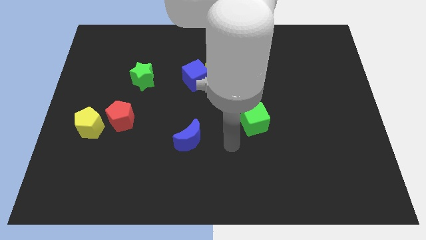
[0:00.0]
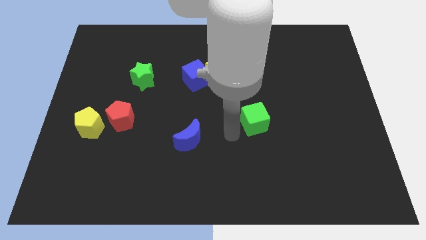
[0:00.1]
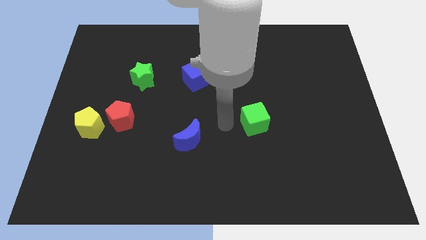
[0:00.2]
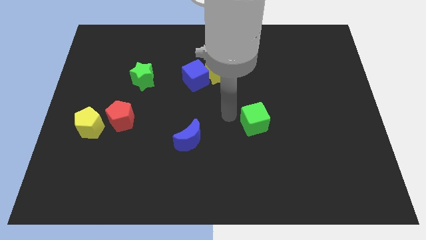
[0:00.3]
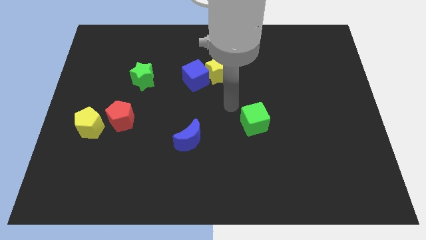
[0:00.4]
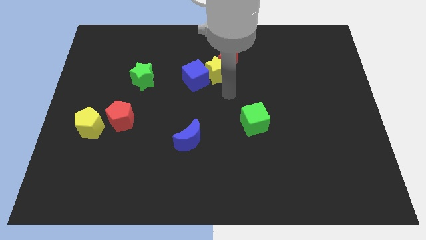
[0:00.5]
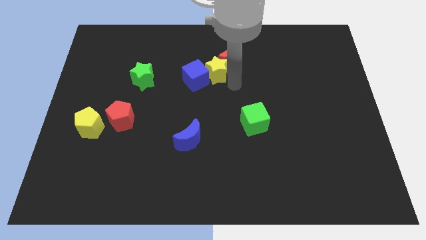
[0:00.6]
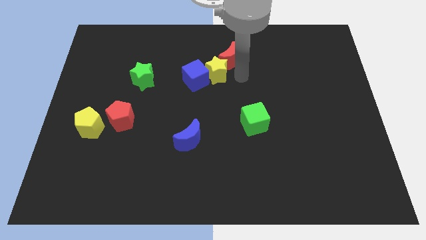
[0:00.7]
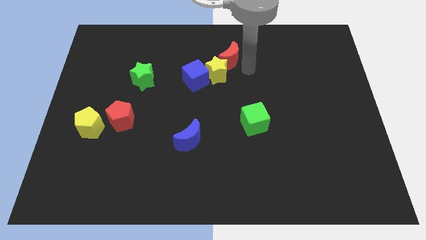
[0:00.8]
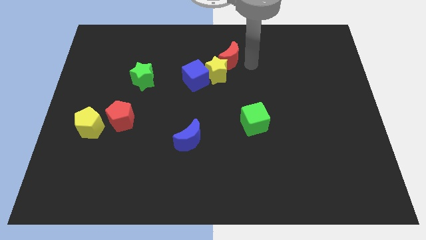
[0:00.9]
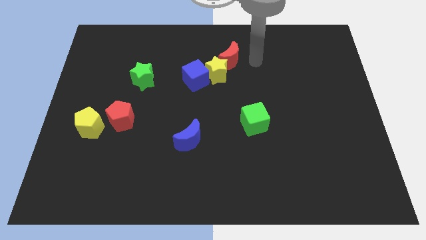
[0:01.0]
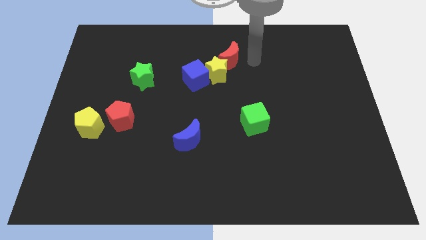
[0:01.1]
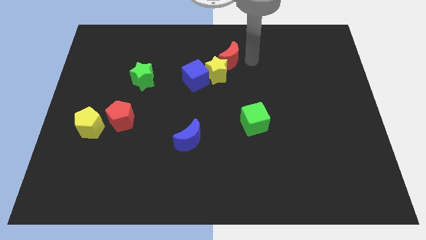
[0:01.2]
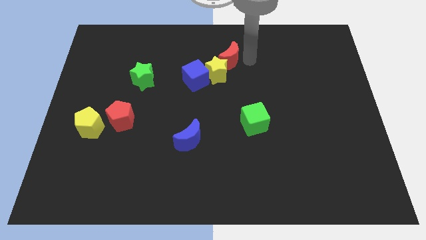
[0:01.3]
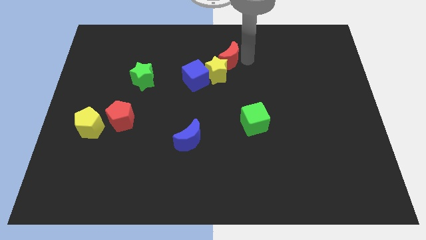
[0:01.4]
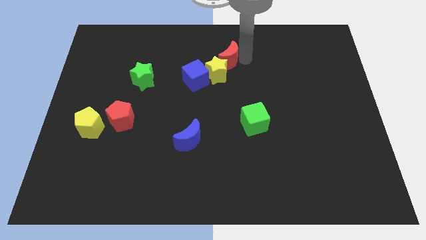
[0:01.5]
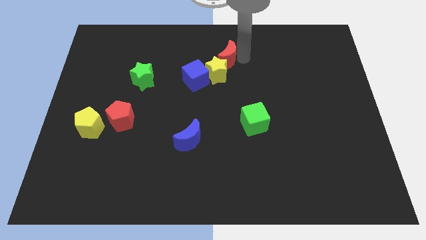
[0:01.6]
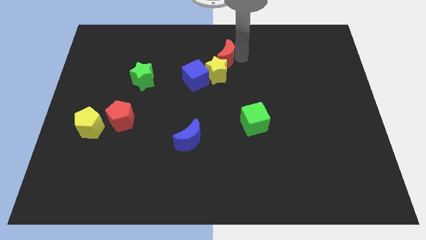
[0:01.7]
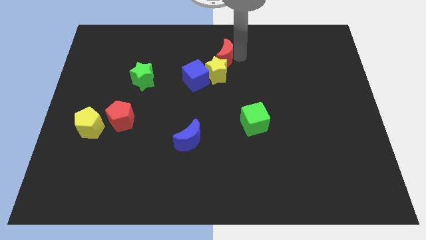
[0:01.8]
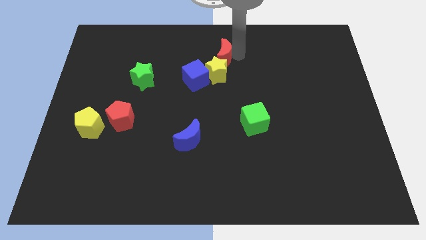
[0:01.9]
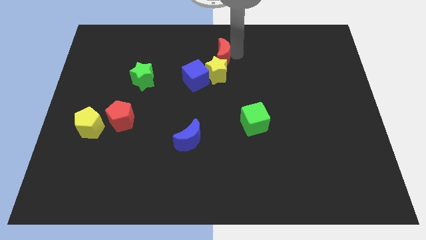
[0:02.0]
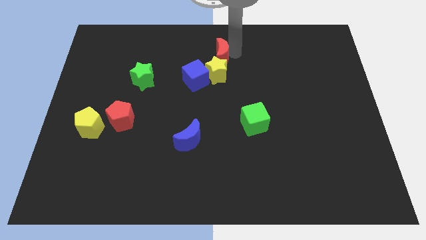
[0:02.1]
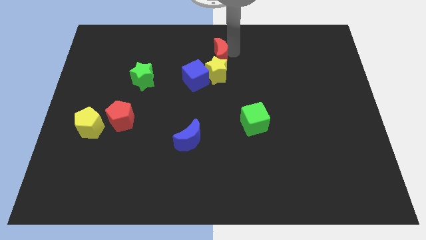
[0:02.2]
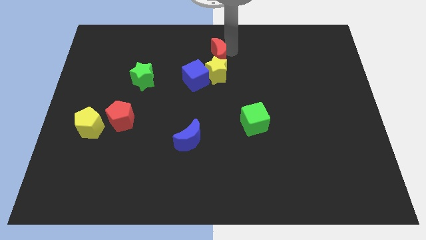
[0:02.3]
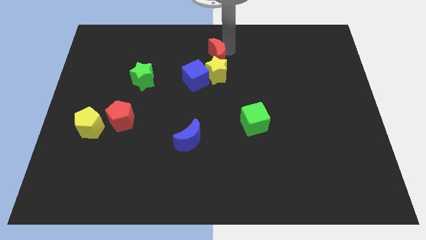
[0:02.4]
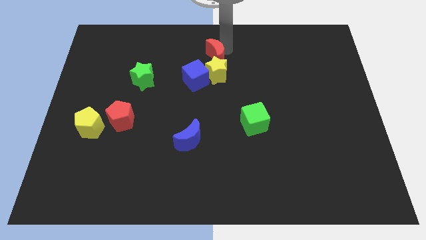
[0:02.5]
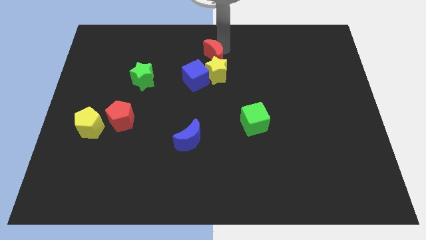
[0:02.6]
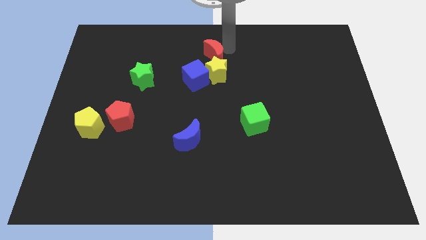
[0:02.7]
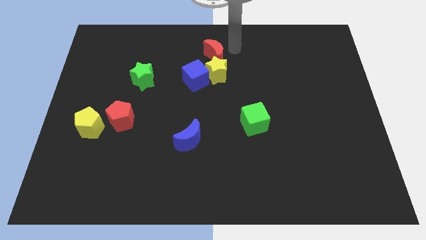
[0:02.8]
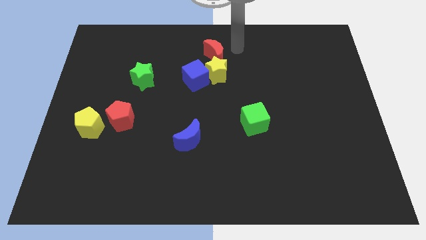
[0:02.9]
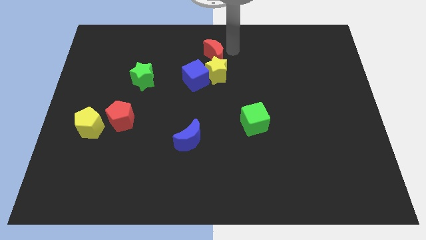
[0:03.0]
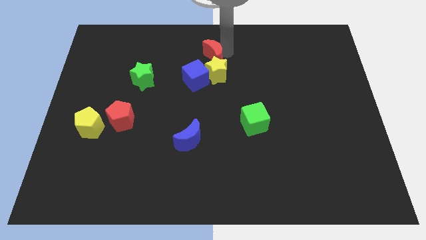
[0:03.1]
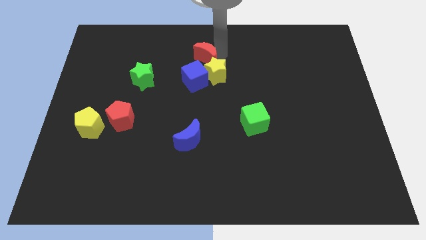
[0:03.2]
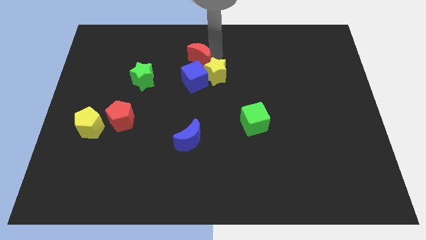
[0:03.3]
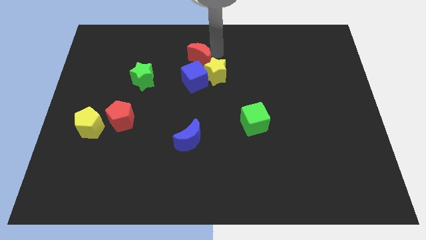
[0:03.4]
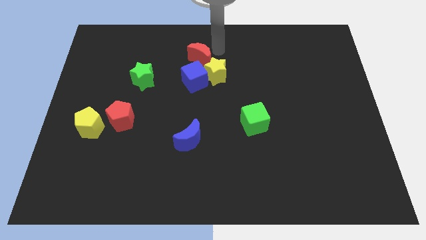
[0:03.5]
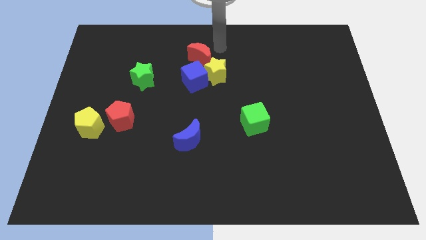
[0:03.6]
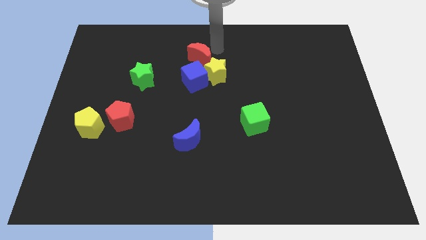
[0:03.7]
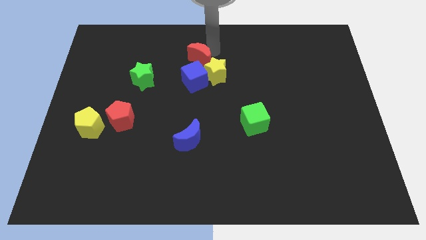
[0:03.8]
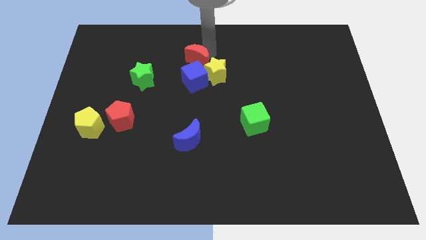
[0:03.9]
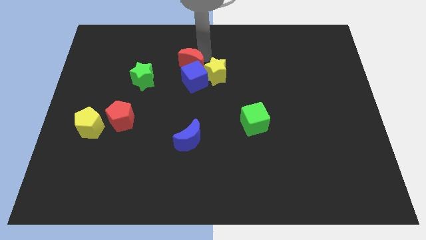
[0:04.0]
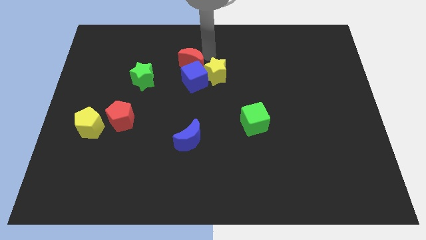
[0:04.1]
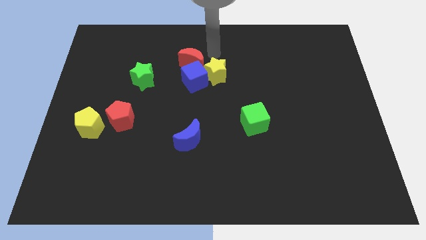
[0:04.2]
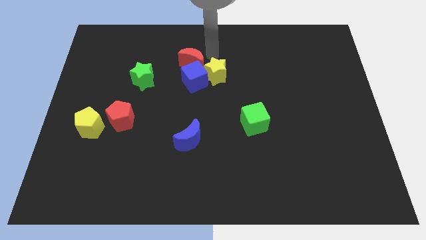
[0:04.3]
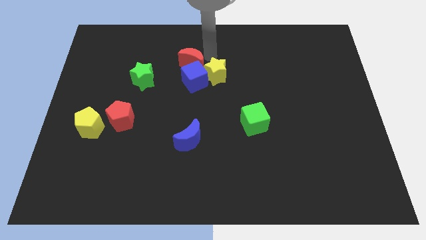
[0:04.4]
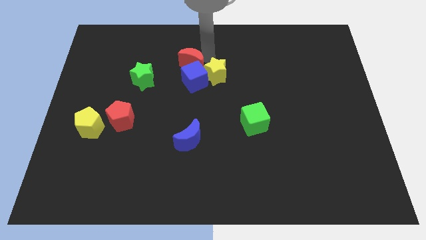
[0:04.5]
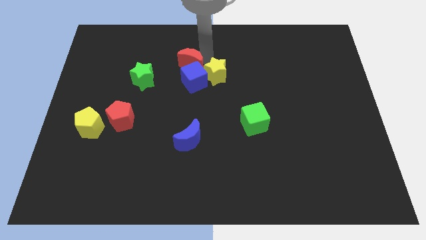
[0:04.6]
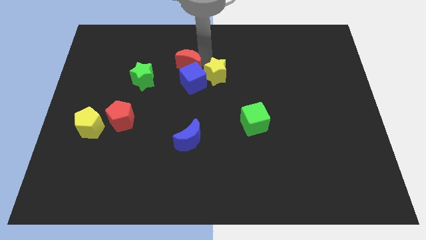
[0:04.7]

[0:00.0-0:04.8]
slide the red moon a little diagonally downwards and to the left

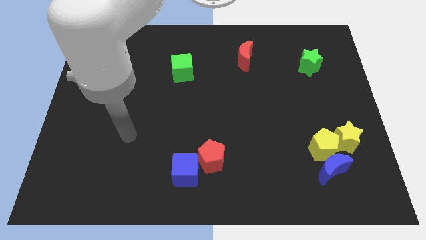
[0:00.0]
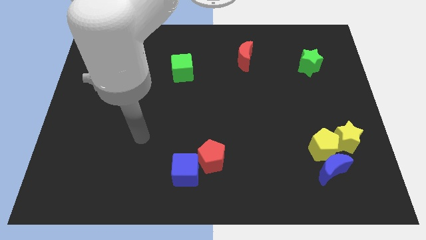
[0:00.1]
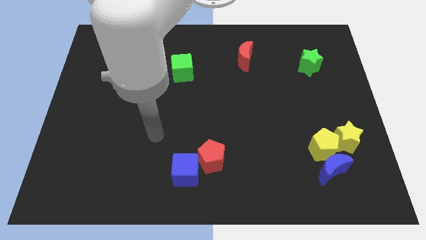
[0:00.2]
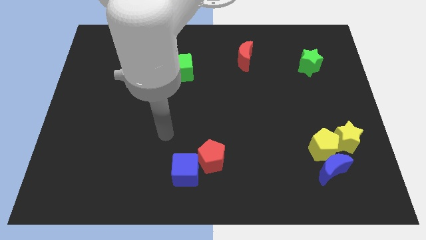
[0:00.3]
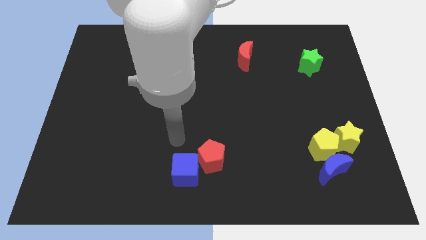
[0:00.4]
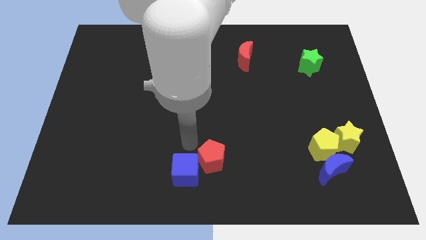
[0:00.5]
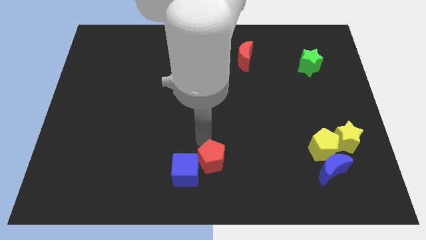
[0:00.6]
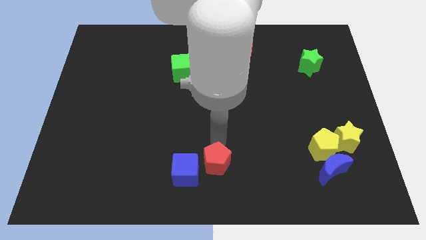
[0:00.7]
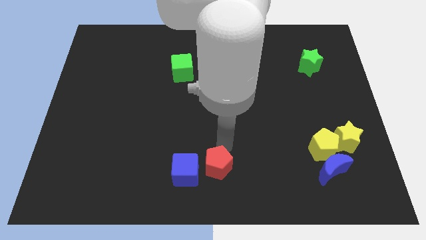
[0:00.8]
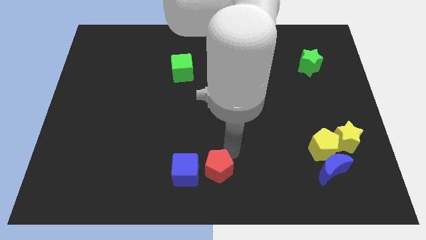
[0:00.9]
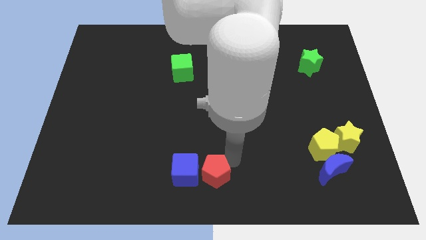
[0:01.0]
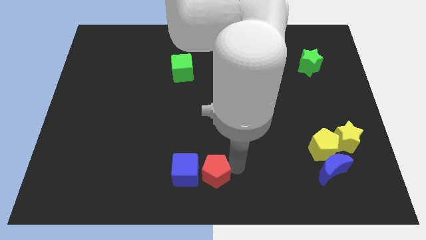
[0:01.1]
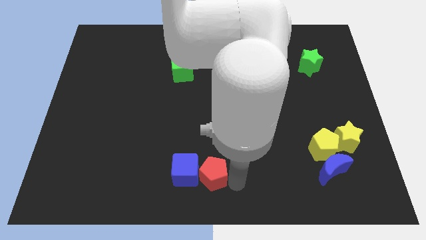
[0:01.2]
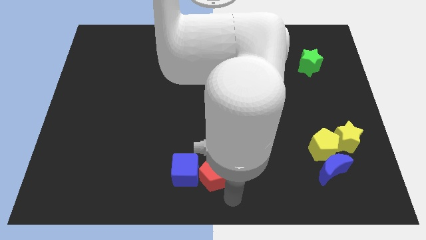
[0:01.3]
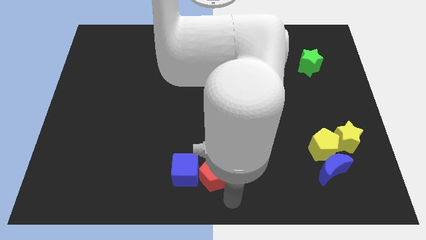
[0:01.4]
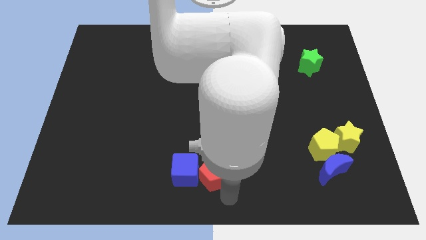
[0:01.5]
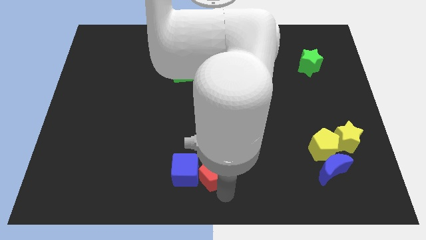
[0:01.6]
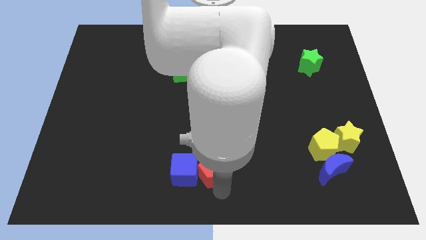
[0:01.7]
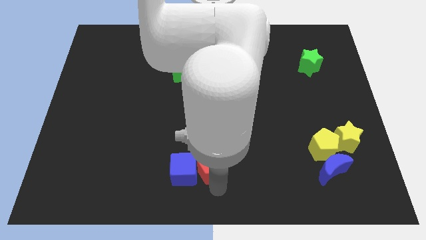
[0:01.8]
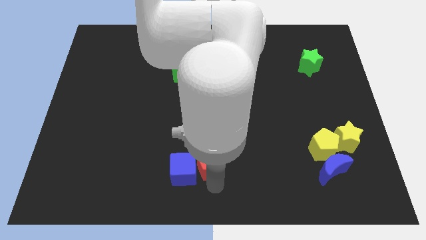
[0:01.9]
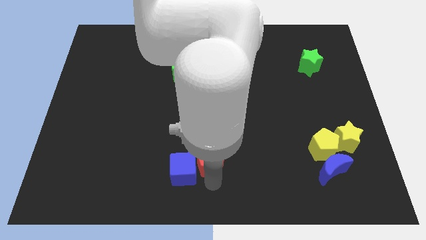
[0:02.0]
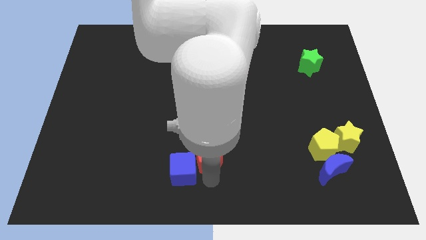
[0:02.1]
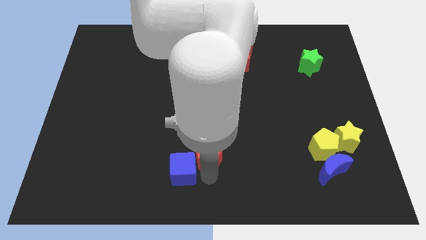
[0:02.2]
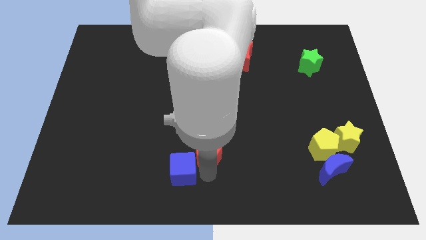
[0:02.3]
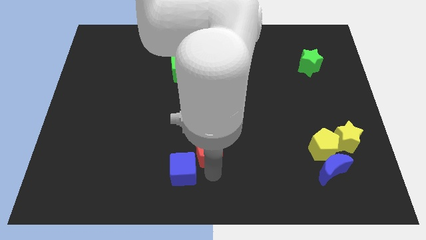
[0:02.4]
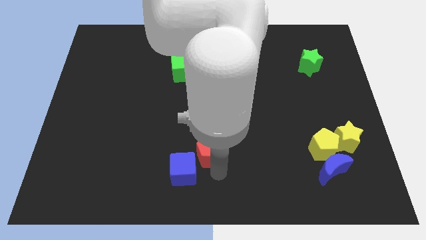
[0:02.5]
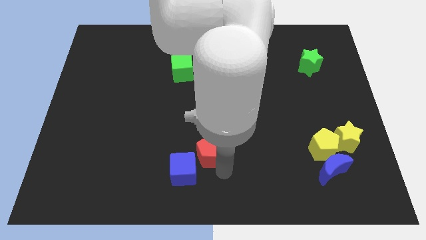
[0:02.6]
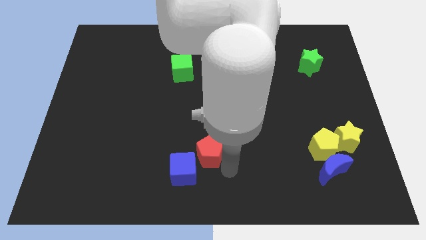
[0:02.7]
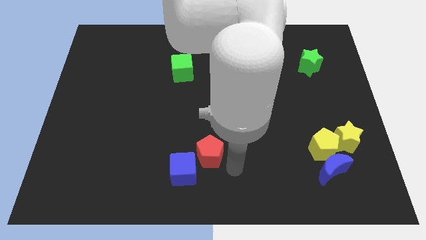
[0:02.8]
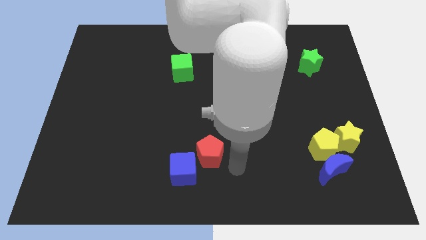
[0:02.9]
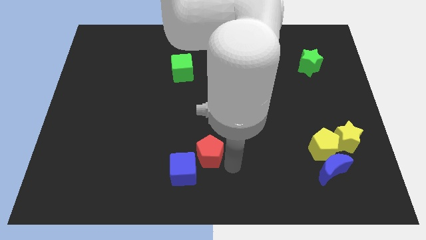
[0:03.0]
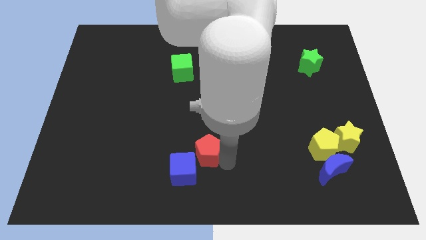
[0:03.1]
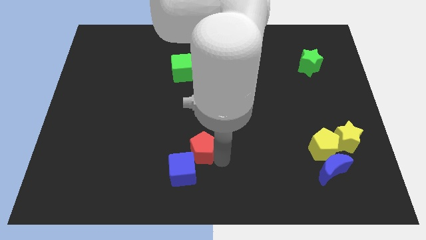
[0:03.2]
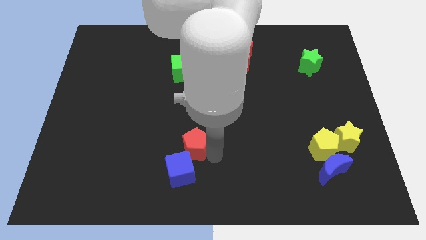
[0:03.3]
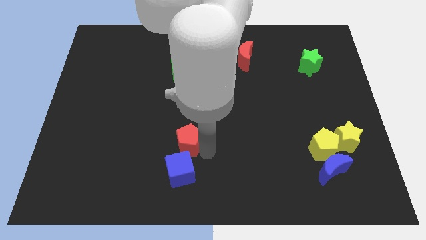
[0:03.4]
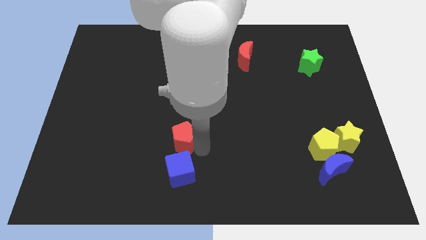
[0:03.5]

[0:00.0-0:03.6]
slightly push the red pentagon diagonally upwards and left
